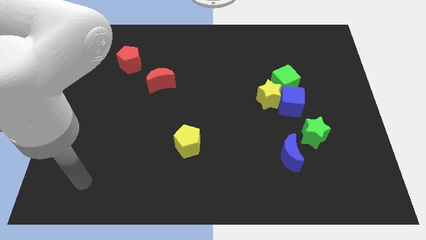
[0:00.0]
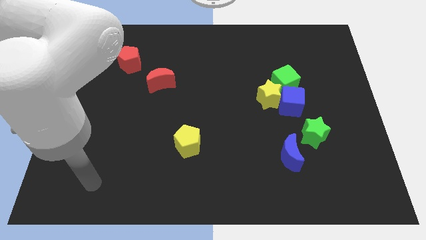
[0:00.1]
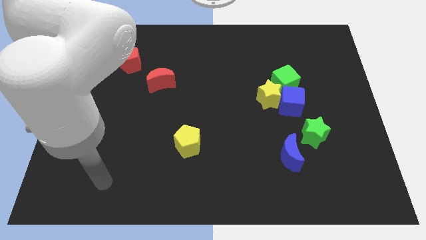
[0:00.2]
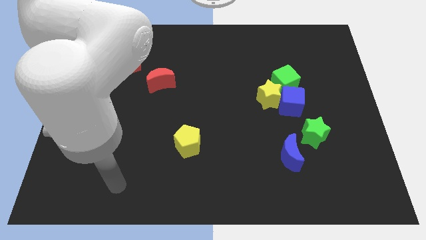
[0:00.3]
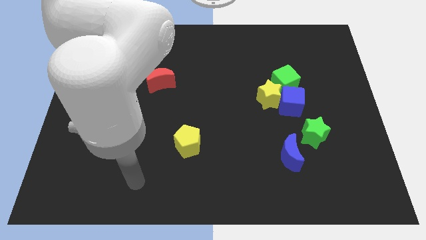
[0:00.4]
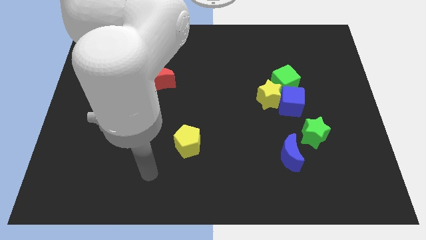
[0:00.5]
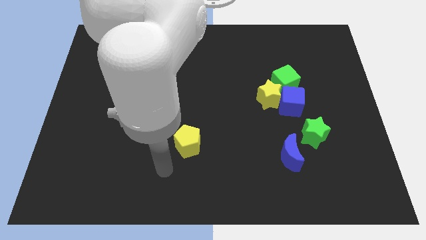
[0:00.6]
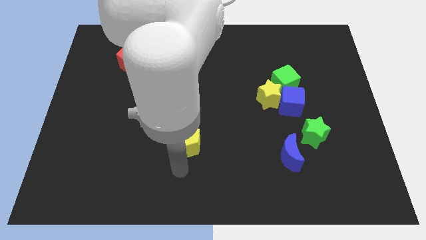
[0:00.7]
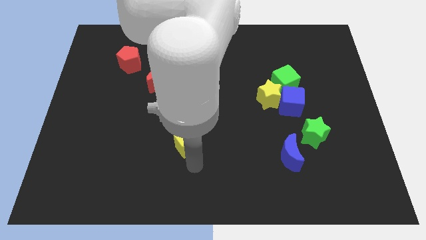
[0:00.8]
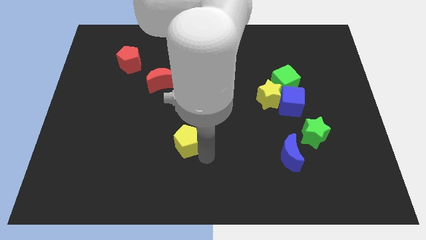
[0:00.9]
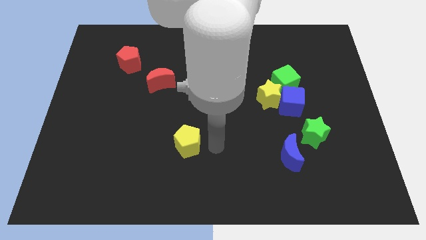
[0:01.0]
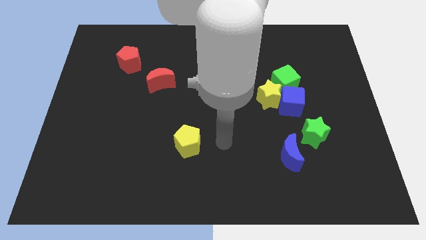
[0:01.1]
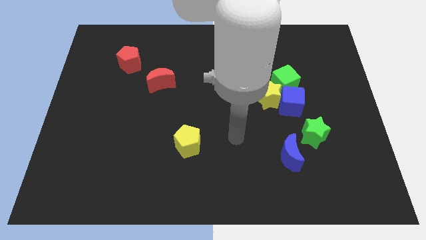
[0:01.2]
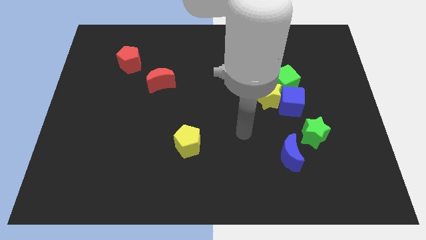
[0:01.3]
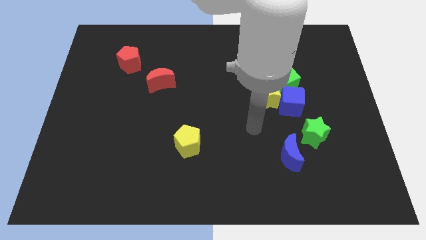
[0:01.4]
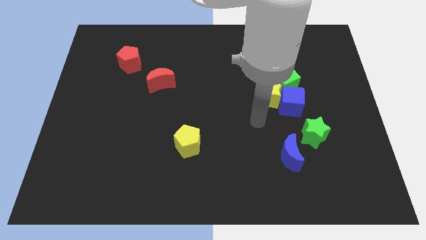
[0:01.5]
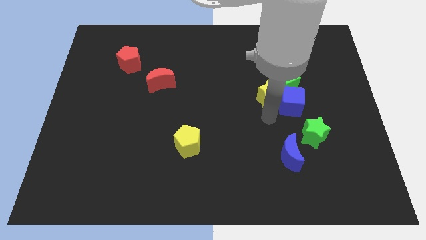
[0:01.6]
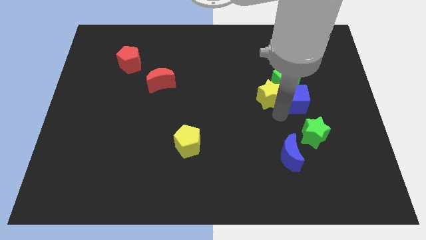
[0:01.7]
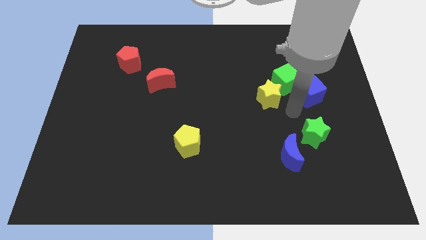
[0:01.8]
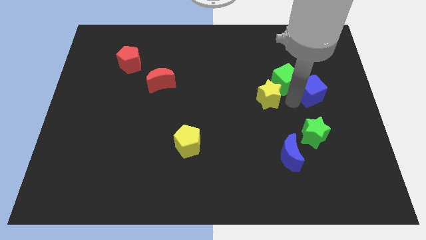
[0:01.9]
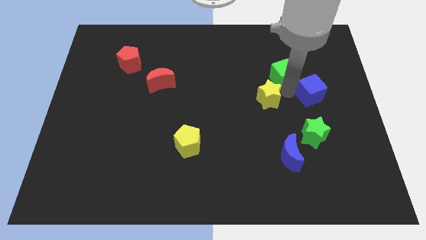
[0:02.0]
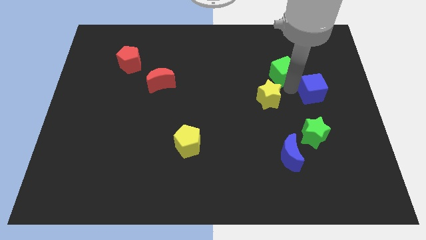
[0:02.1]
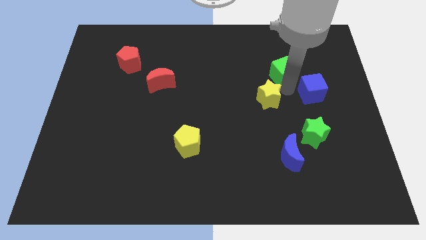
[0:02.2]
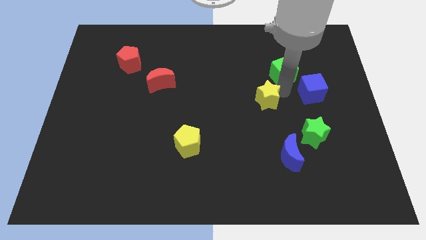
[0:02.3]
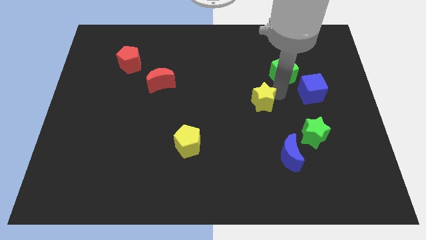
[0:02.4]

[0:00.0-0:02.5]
pull the yellow star apart from the blue cube and green cube

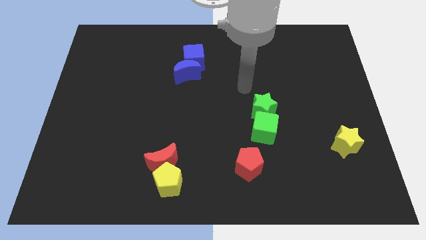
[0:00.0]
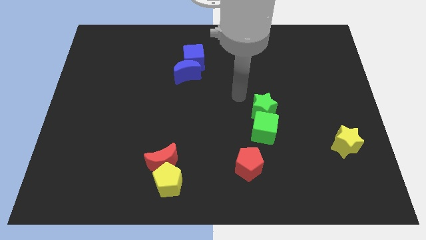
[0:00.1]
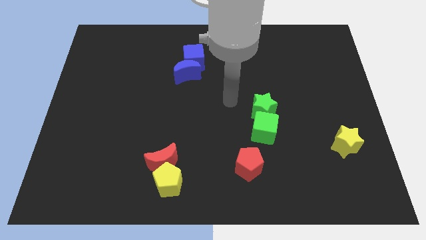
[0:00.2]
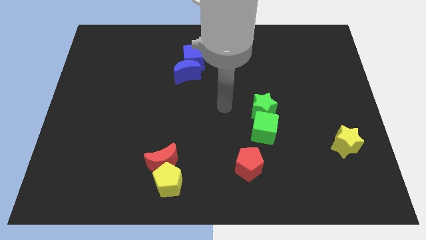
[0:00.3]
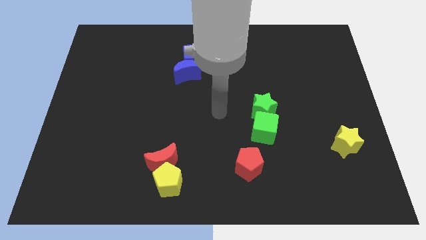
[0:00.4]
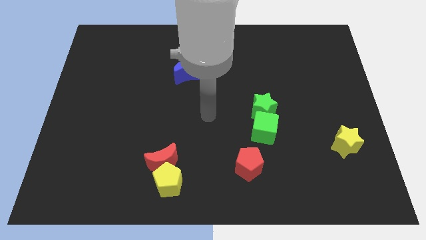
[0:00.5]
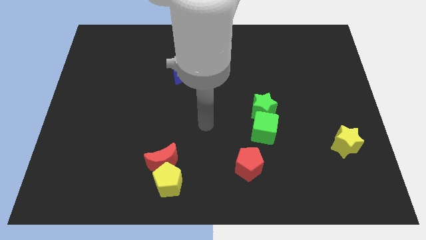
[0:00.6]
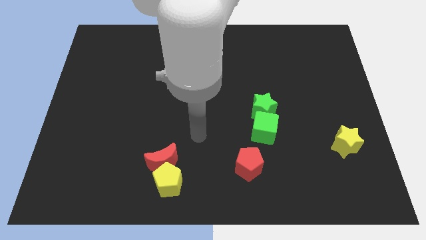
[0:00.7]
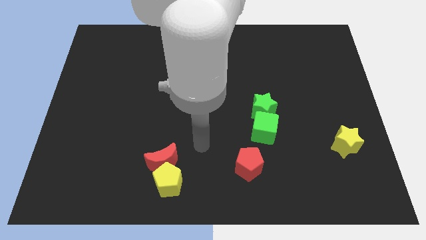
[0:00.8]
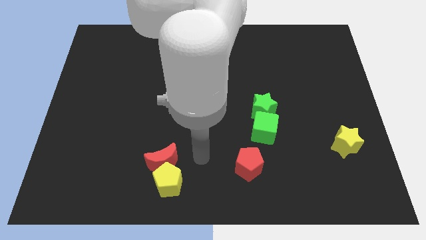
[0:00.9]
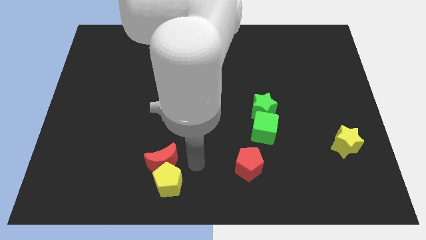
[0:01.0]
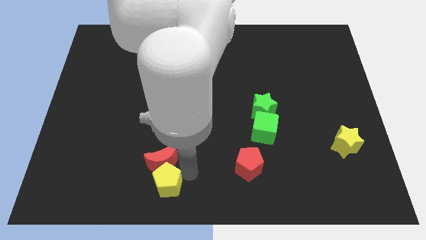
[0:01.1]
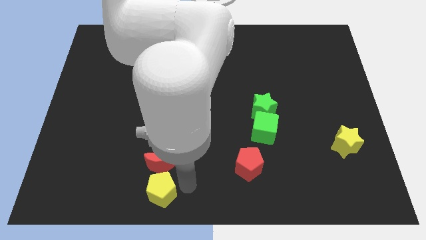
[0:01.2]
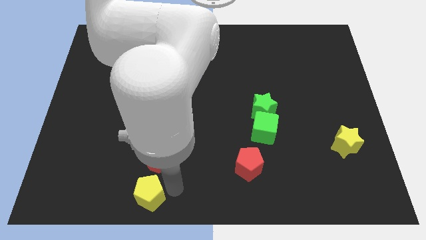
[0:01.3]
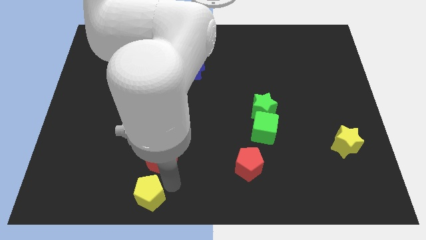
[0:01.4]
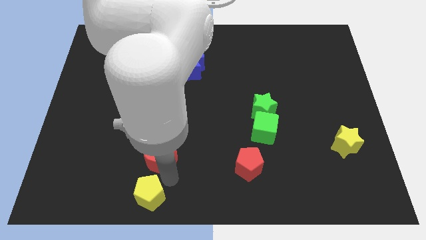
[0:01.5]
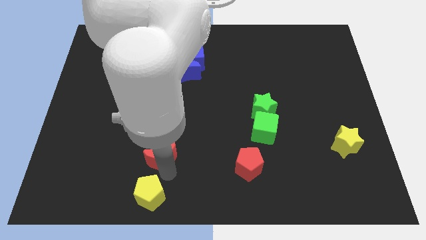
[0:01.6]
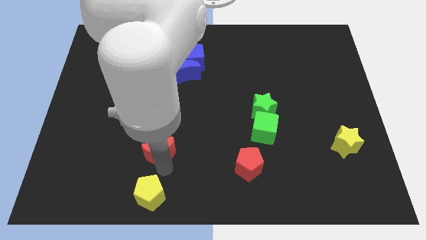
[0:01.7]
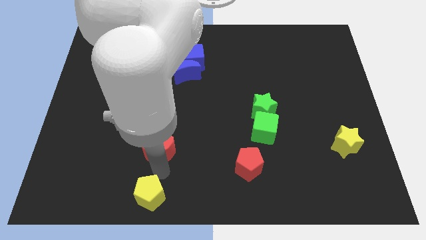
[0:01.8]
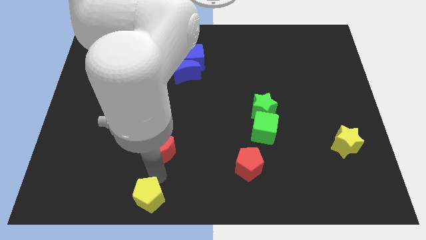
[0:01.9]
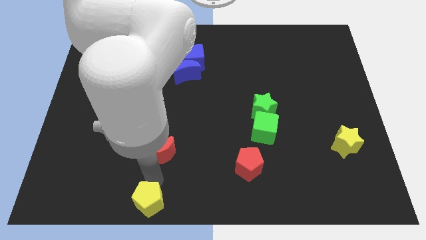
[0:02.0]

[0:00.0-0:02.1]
move the red moon away from the yellow pentagon

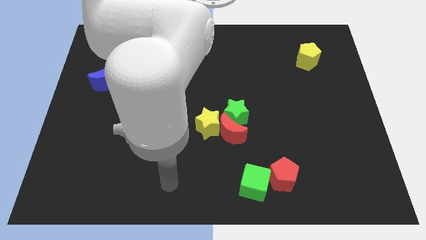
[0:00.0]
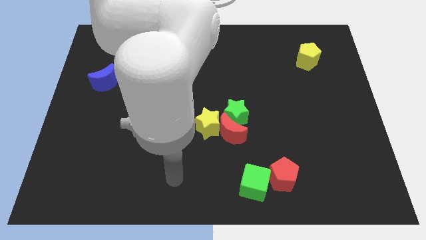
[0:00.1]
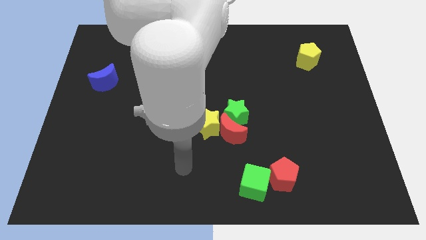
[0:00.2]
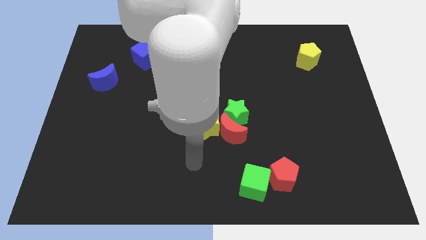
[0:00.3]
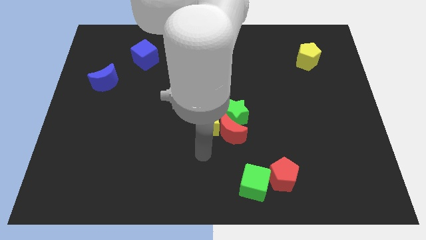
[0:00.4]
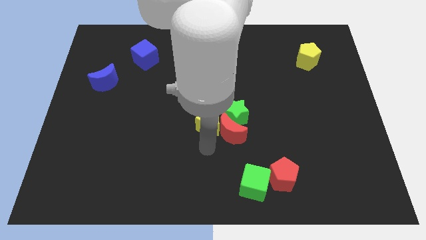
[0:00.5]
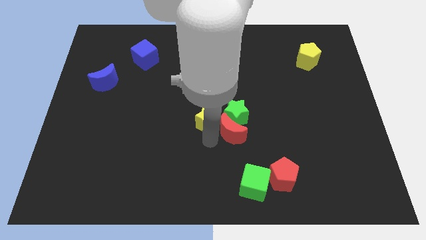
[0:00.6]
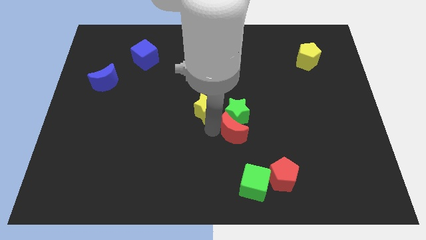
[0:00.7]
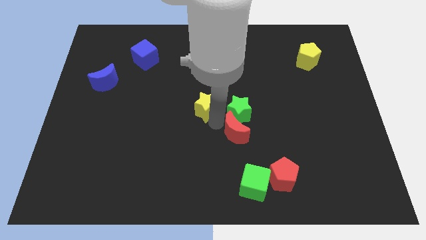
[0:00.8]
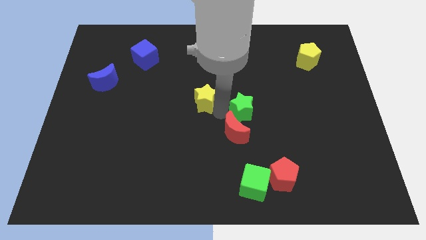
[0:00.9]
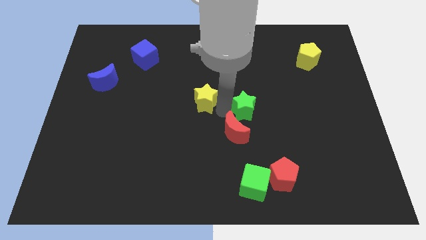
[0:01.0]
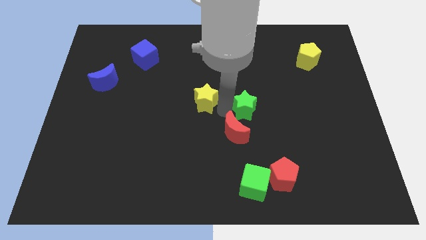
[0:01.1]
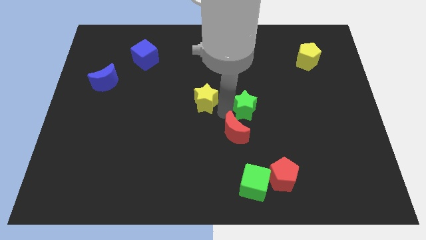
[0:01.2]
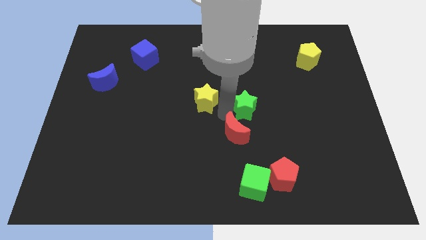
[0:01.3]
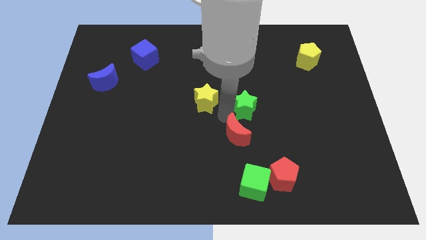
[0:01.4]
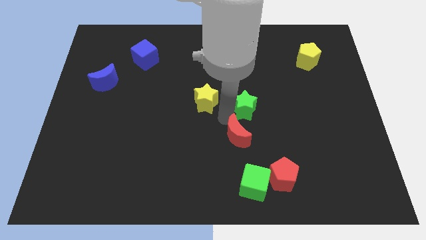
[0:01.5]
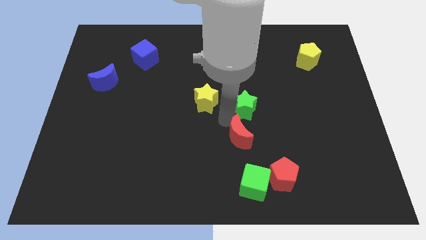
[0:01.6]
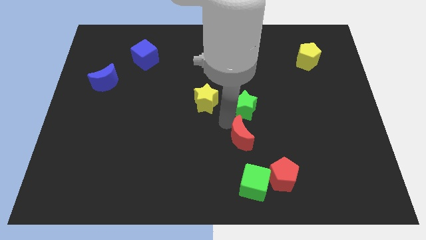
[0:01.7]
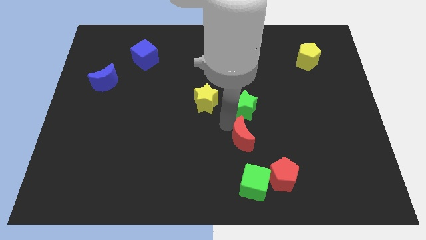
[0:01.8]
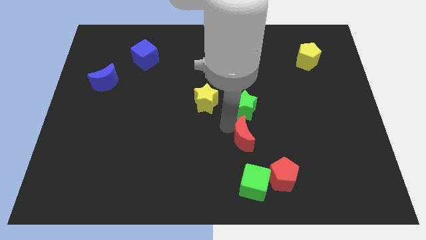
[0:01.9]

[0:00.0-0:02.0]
move the red moon away from the green star and yellow star

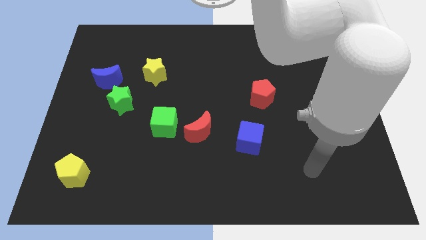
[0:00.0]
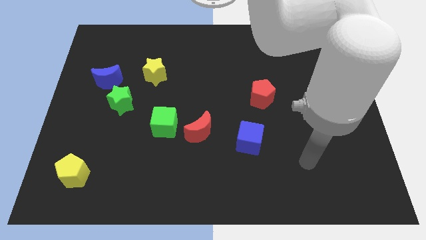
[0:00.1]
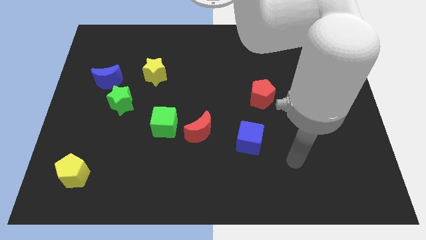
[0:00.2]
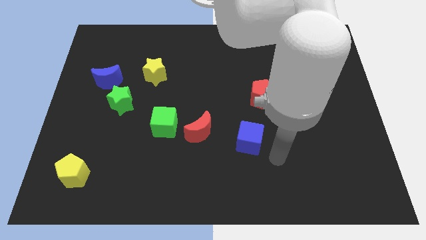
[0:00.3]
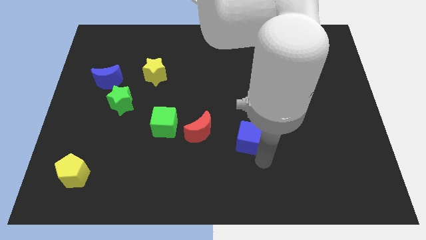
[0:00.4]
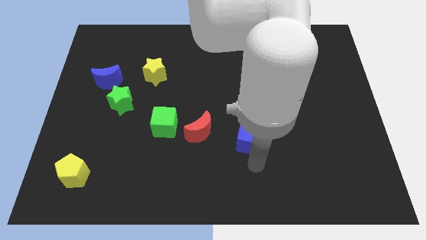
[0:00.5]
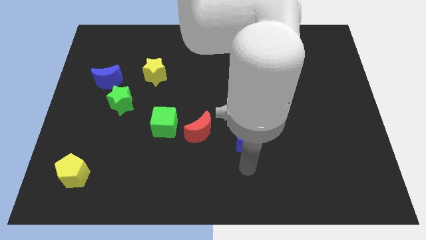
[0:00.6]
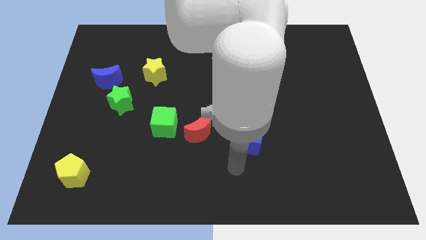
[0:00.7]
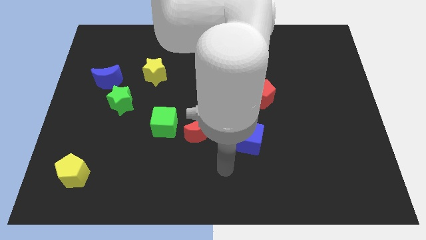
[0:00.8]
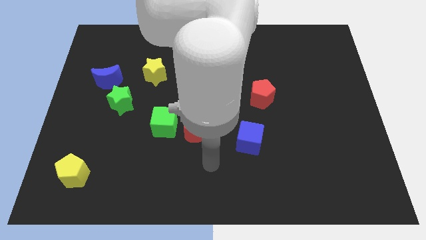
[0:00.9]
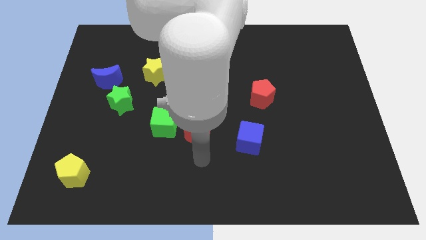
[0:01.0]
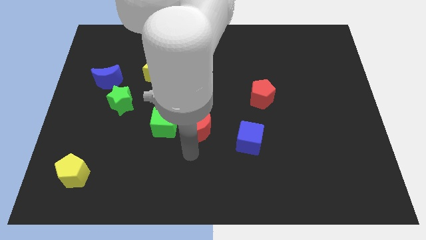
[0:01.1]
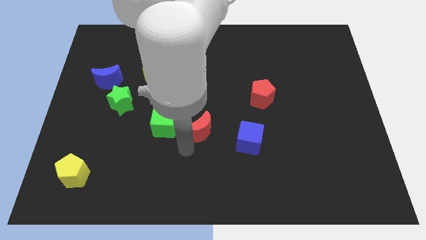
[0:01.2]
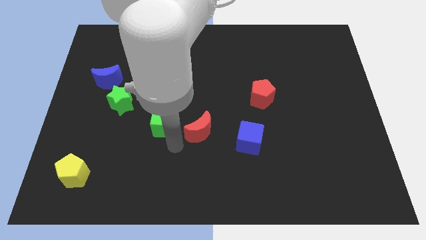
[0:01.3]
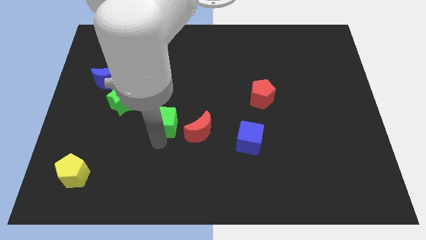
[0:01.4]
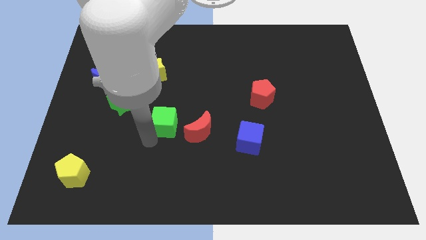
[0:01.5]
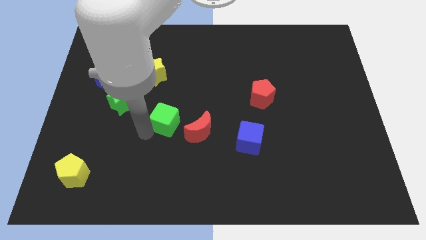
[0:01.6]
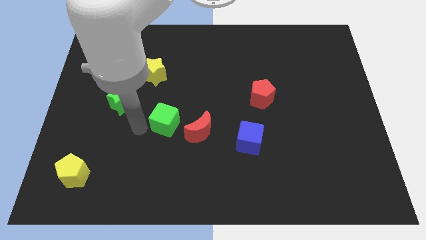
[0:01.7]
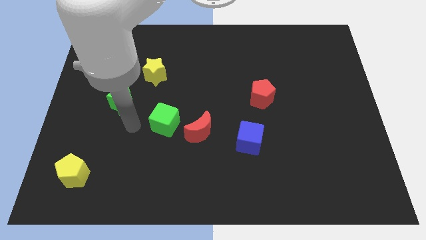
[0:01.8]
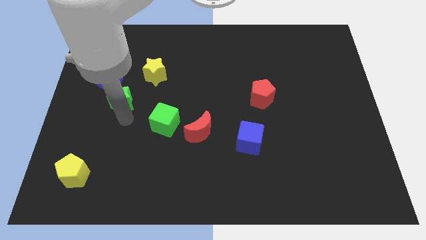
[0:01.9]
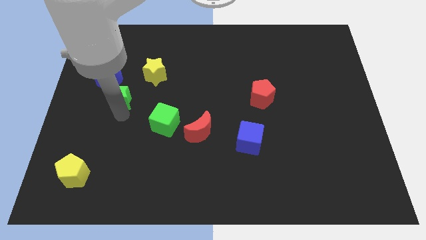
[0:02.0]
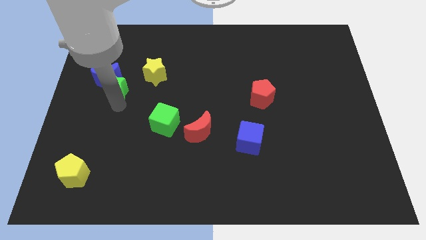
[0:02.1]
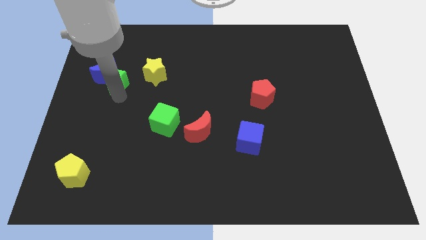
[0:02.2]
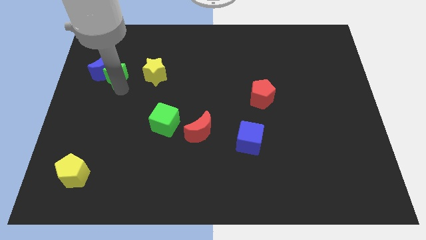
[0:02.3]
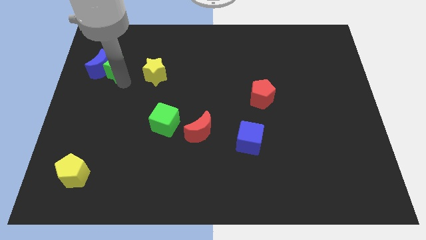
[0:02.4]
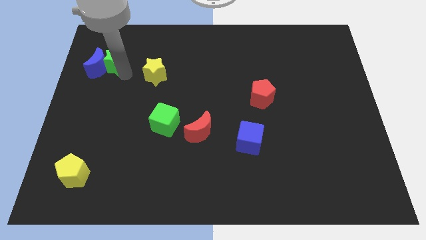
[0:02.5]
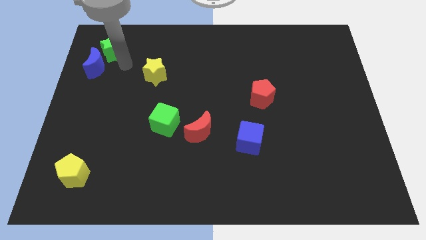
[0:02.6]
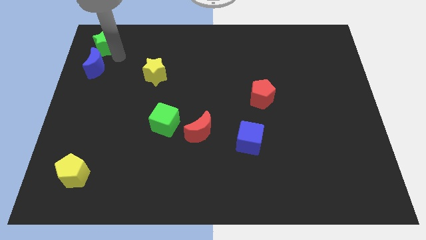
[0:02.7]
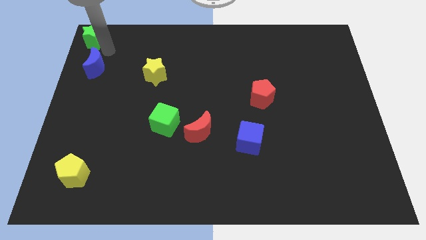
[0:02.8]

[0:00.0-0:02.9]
move the blue moon away from the green star
